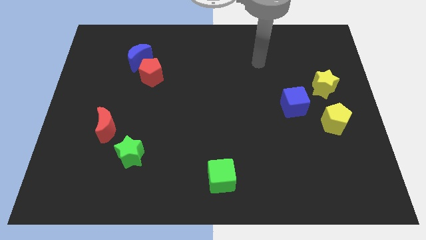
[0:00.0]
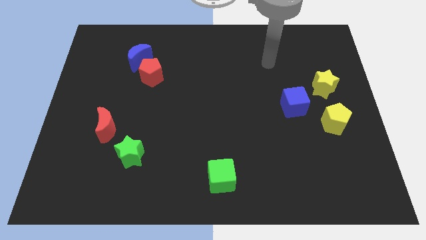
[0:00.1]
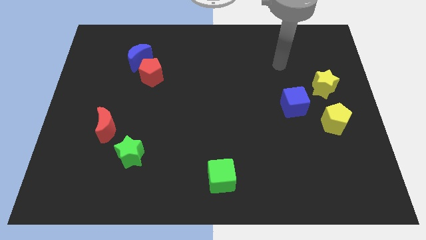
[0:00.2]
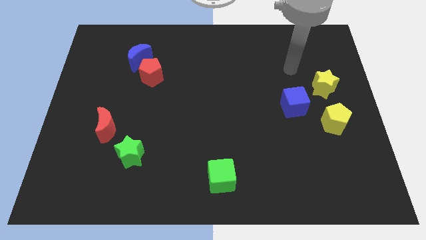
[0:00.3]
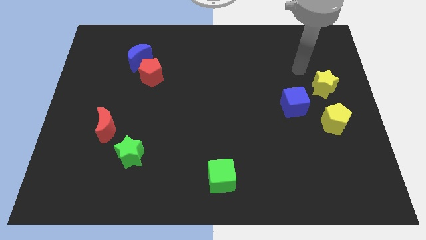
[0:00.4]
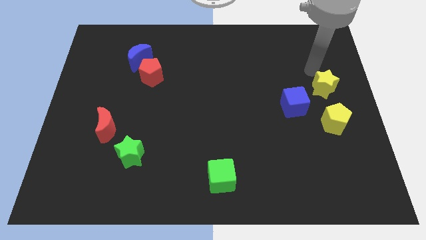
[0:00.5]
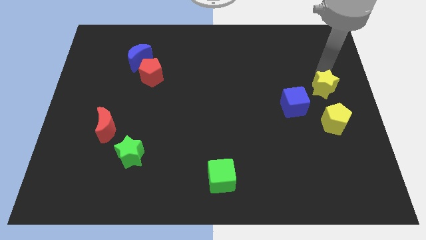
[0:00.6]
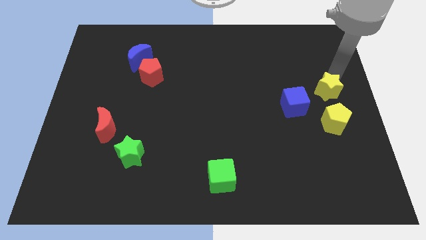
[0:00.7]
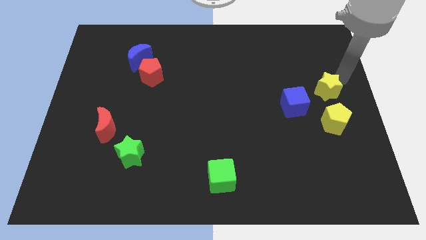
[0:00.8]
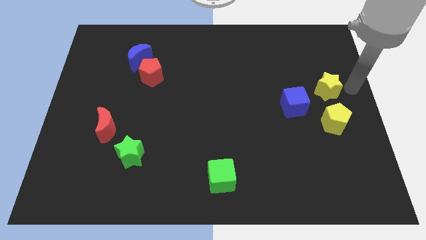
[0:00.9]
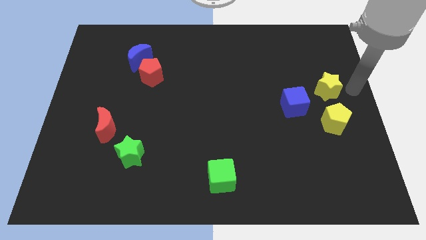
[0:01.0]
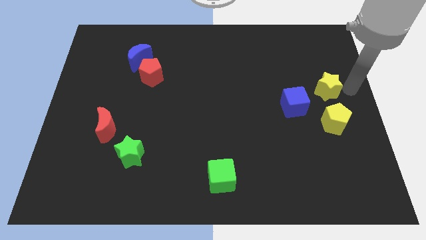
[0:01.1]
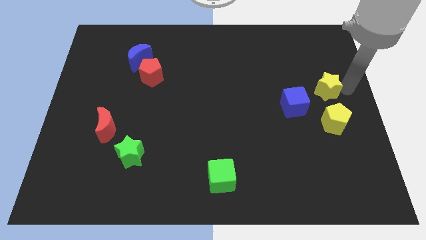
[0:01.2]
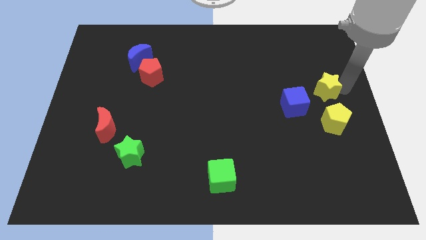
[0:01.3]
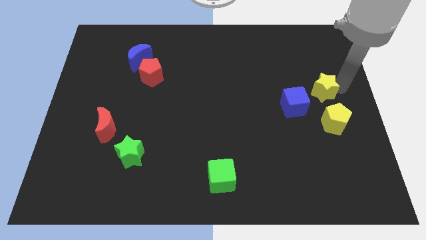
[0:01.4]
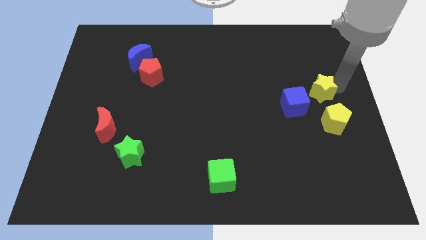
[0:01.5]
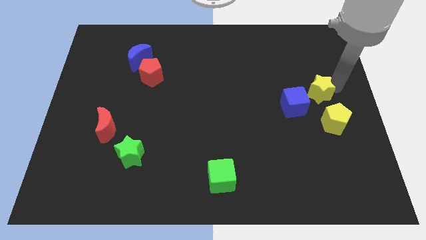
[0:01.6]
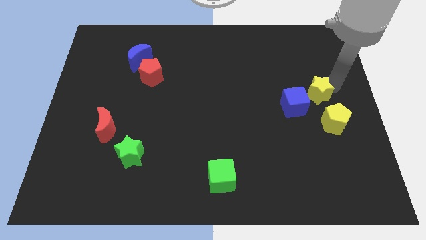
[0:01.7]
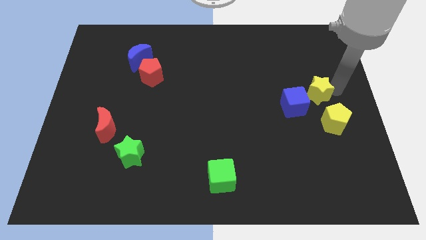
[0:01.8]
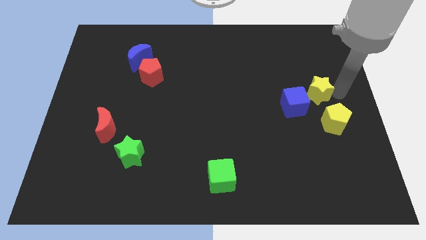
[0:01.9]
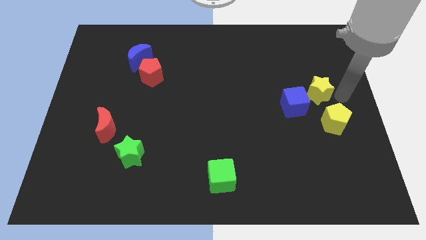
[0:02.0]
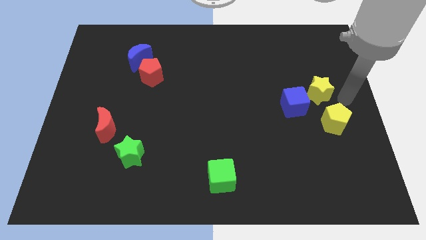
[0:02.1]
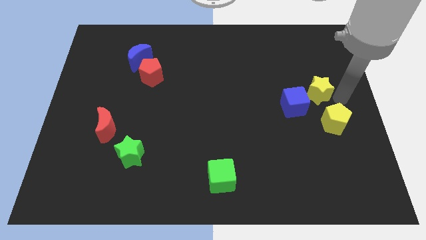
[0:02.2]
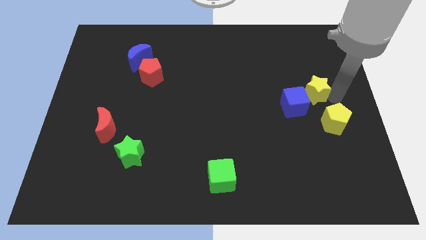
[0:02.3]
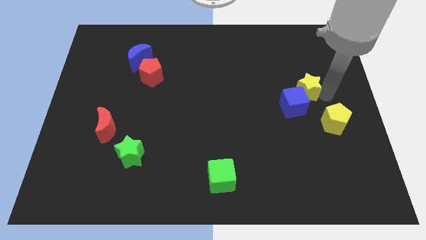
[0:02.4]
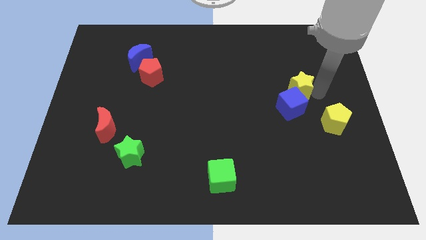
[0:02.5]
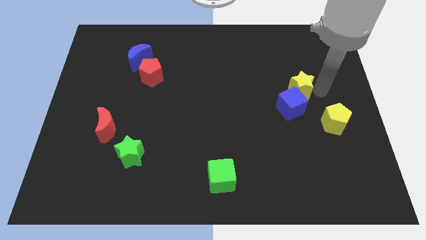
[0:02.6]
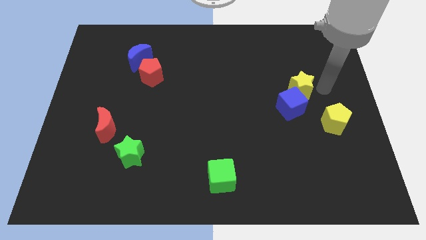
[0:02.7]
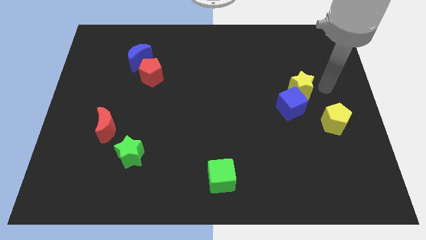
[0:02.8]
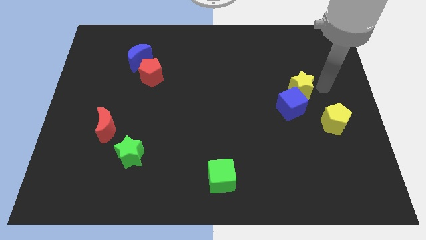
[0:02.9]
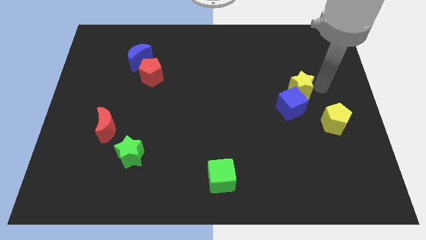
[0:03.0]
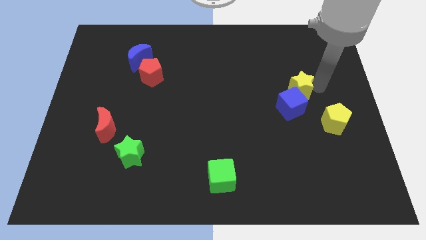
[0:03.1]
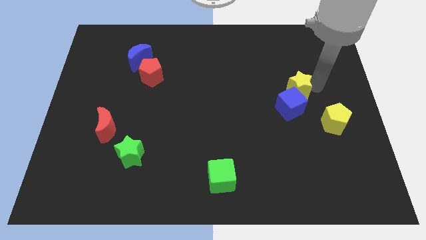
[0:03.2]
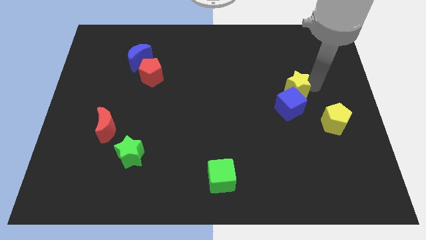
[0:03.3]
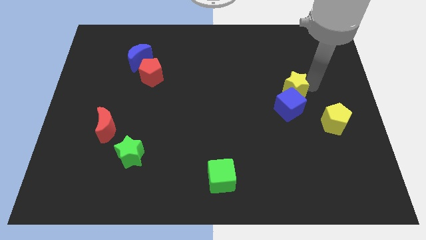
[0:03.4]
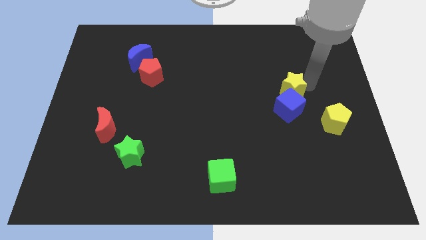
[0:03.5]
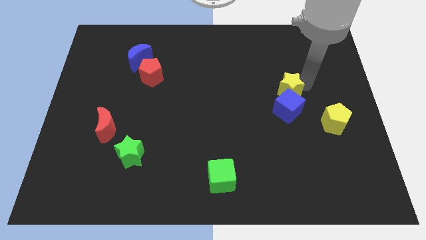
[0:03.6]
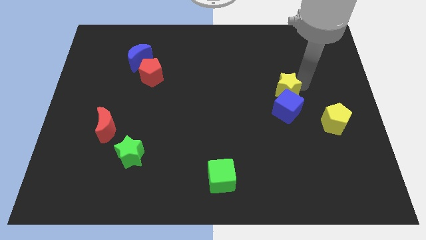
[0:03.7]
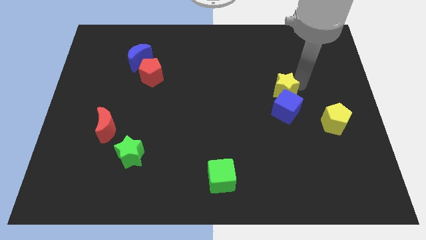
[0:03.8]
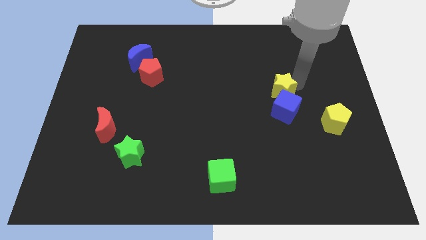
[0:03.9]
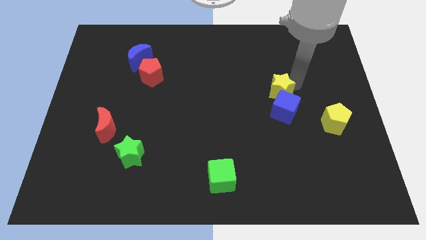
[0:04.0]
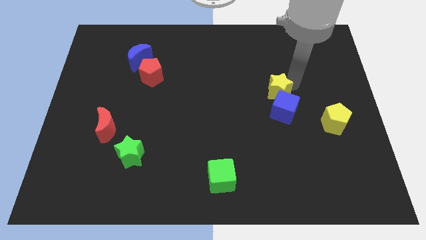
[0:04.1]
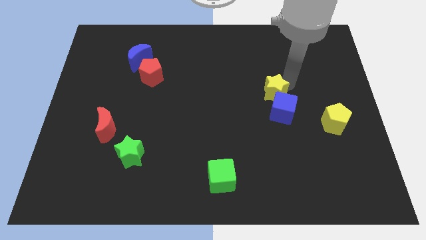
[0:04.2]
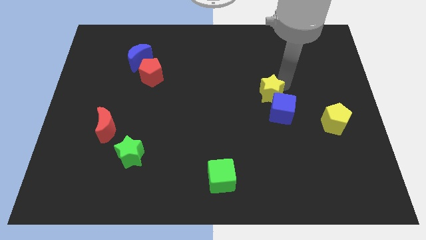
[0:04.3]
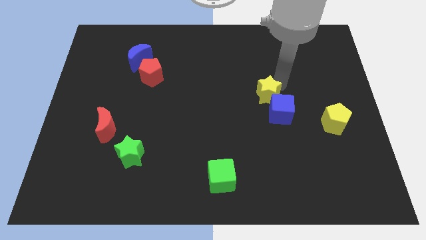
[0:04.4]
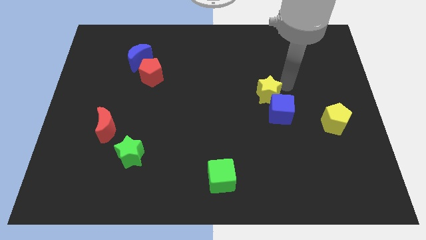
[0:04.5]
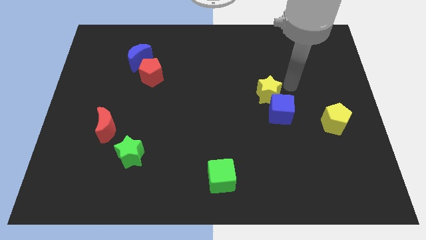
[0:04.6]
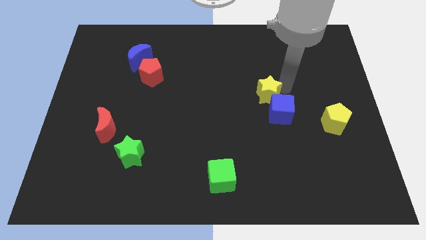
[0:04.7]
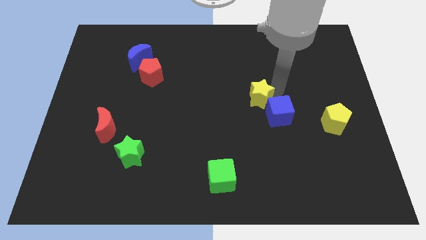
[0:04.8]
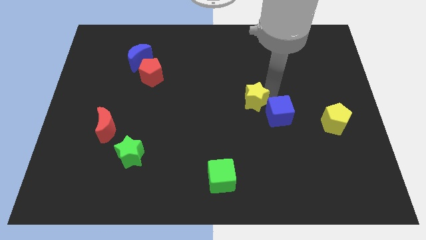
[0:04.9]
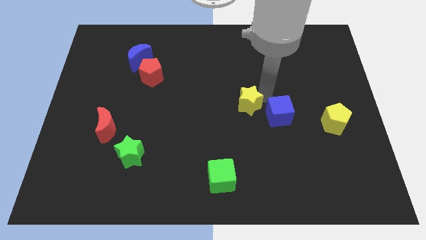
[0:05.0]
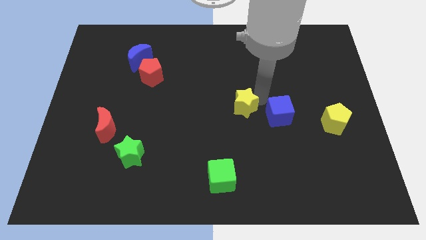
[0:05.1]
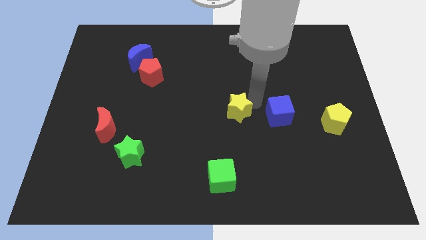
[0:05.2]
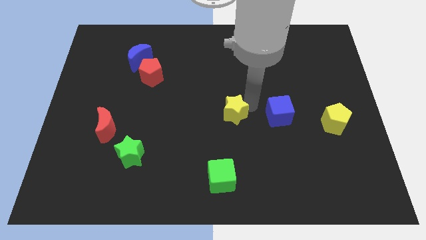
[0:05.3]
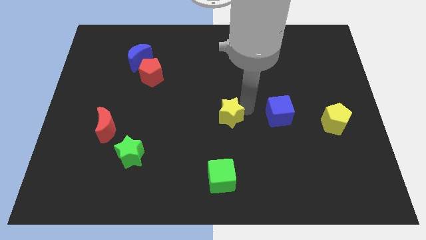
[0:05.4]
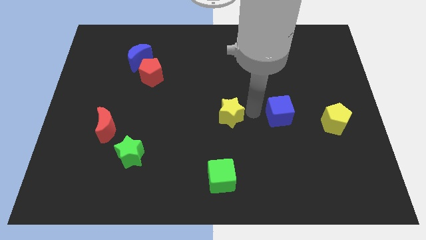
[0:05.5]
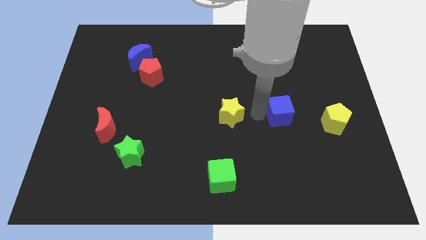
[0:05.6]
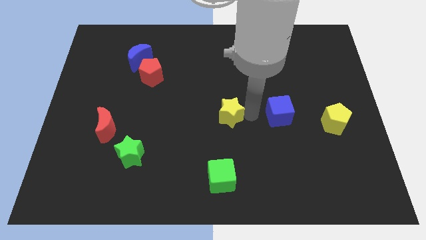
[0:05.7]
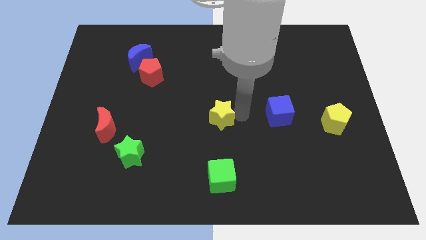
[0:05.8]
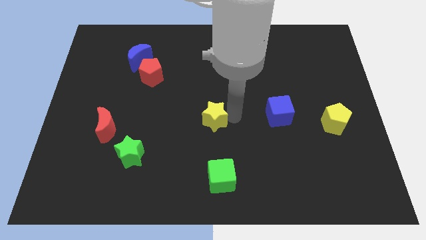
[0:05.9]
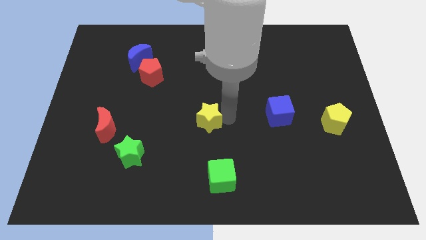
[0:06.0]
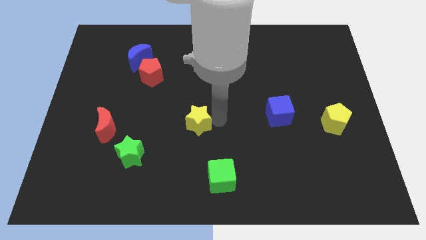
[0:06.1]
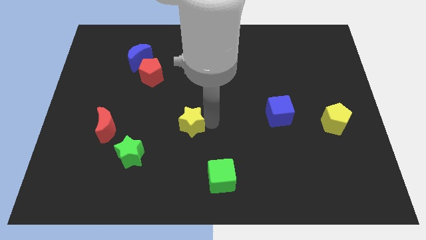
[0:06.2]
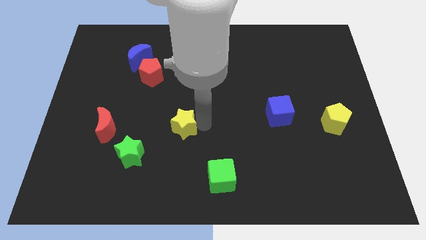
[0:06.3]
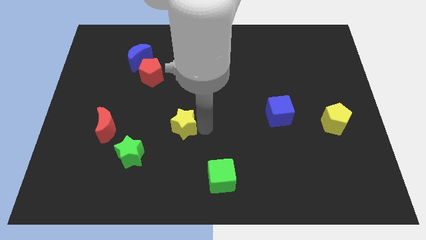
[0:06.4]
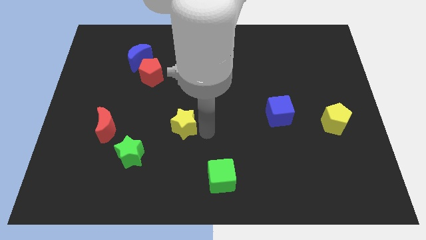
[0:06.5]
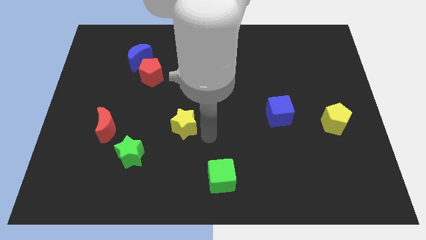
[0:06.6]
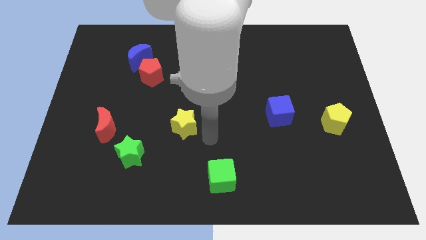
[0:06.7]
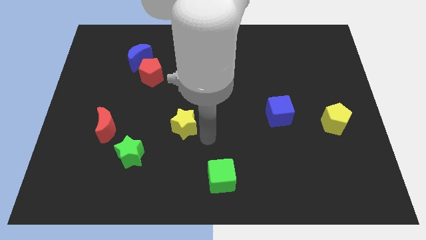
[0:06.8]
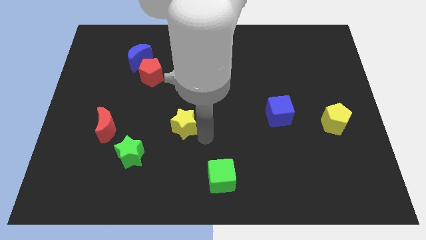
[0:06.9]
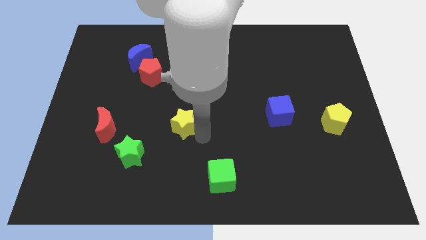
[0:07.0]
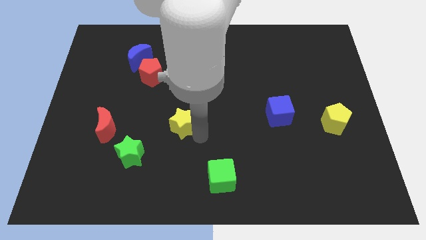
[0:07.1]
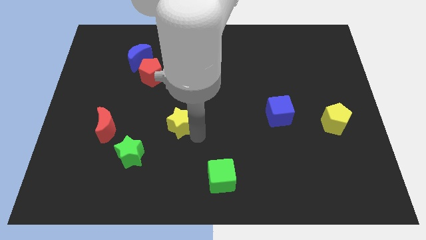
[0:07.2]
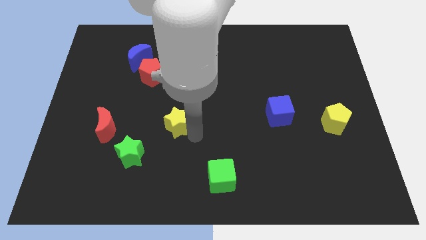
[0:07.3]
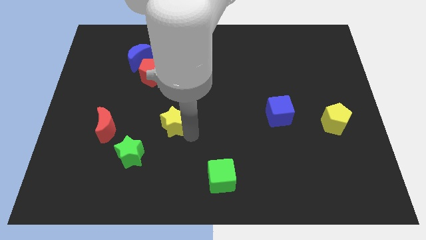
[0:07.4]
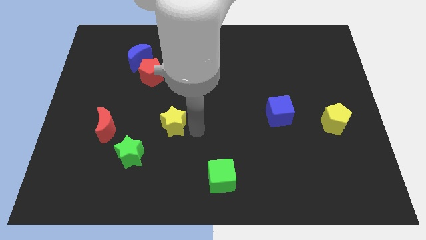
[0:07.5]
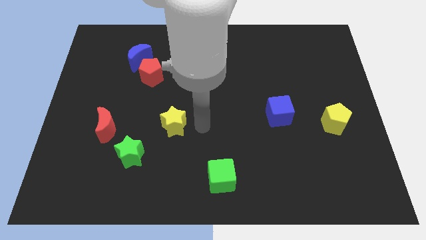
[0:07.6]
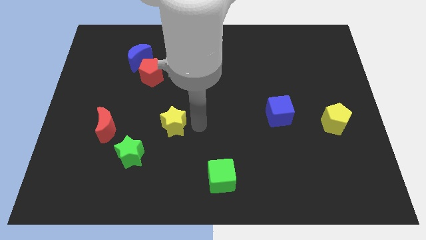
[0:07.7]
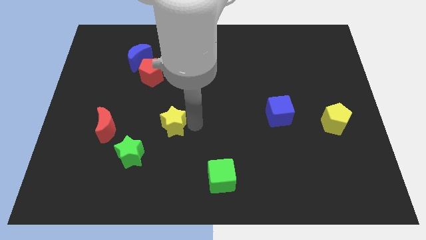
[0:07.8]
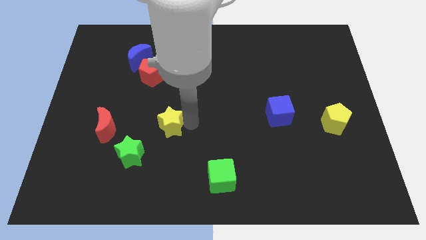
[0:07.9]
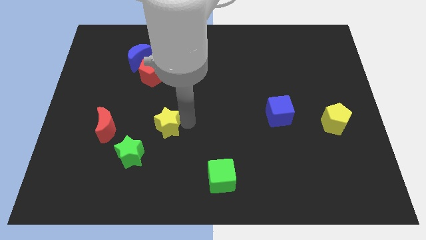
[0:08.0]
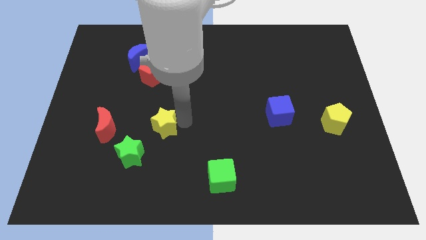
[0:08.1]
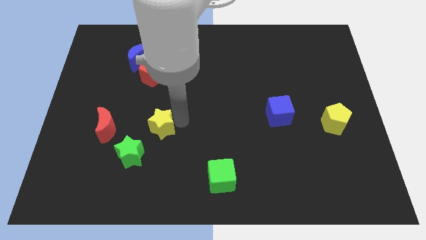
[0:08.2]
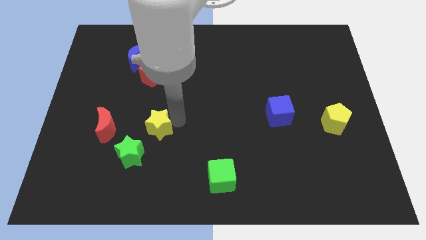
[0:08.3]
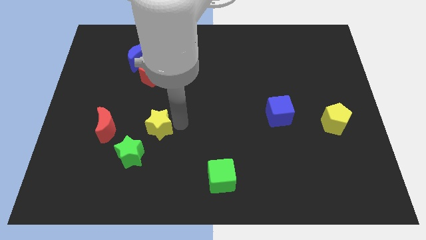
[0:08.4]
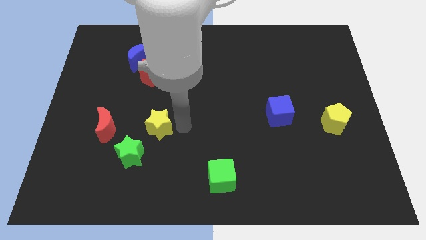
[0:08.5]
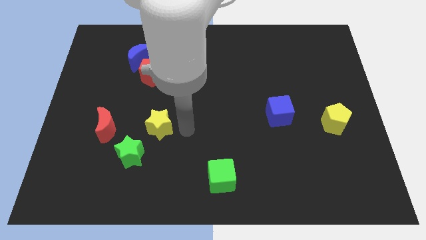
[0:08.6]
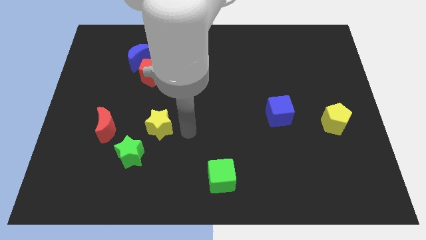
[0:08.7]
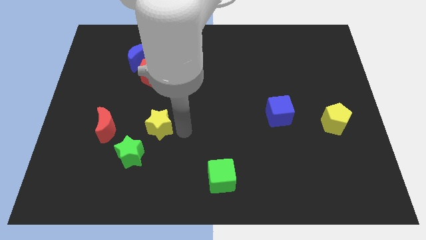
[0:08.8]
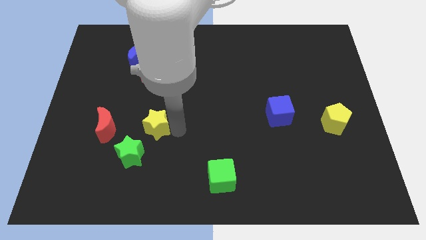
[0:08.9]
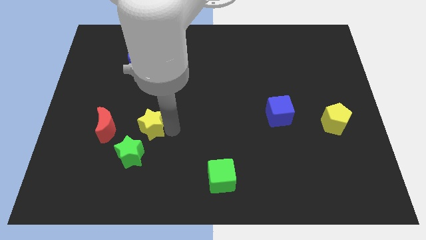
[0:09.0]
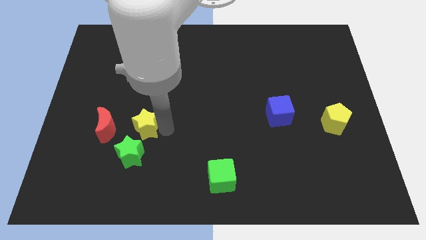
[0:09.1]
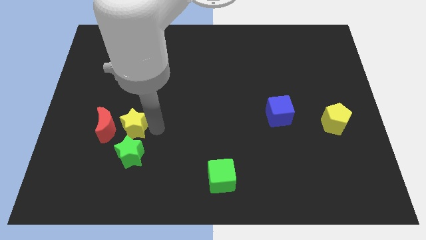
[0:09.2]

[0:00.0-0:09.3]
slide the yellow star next to the red moon
